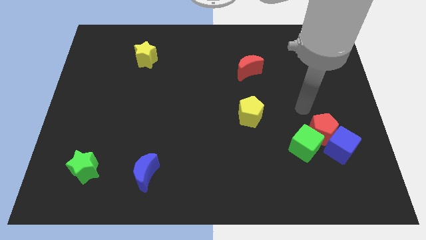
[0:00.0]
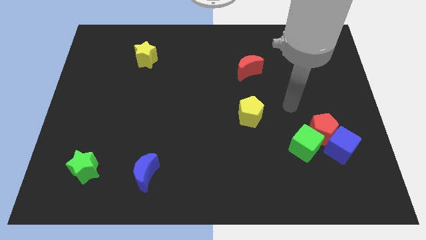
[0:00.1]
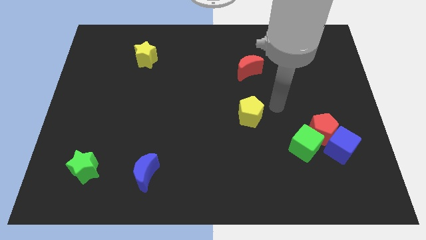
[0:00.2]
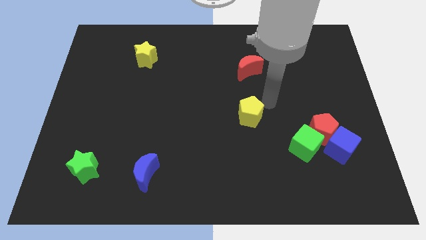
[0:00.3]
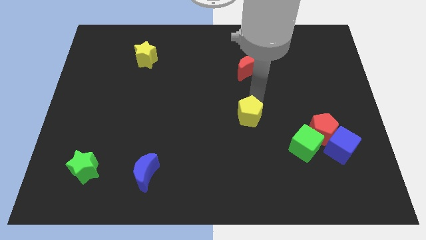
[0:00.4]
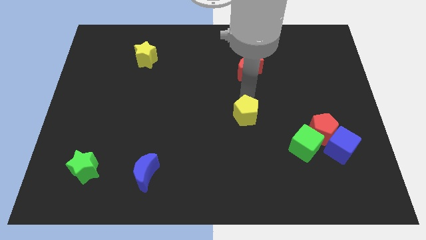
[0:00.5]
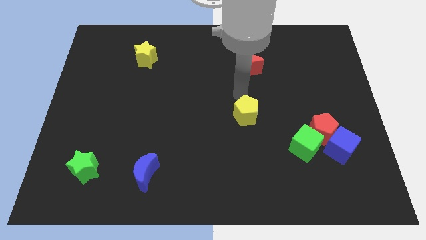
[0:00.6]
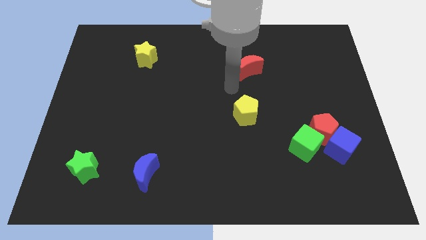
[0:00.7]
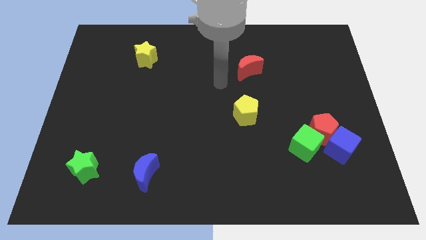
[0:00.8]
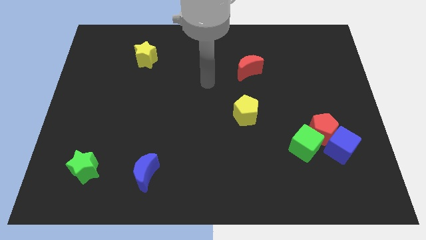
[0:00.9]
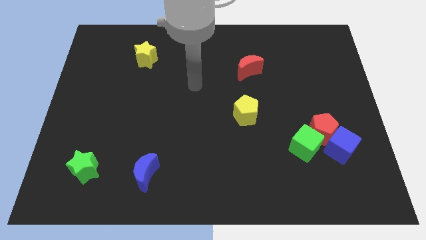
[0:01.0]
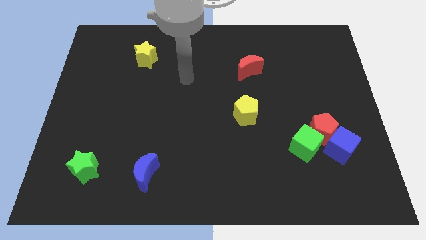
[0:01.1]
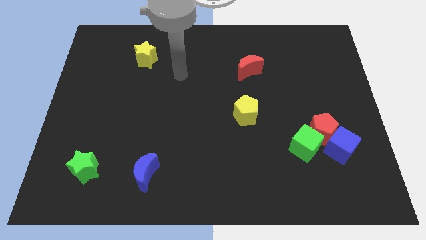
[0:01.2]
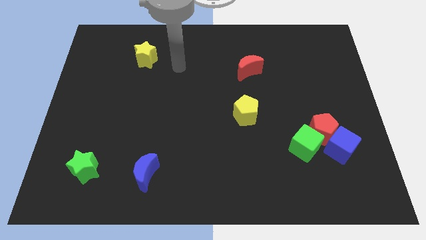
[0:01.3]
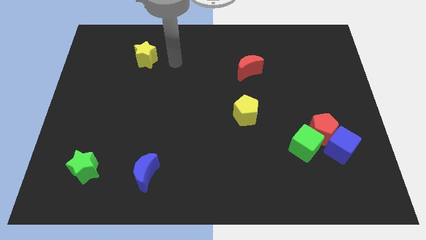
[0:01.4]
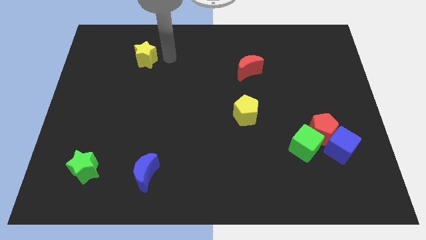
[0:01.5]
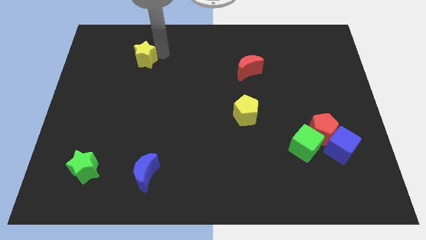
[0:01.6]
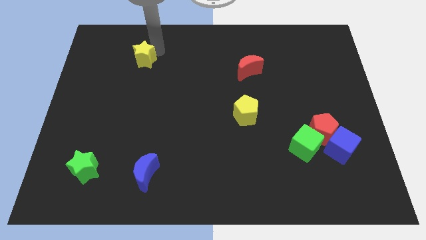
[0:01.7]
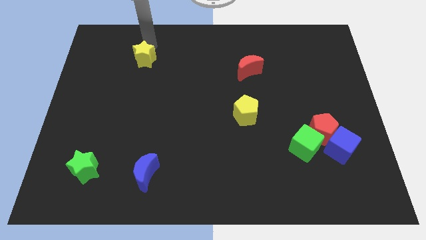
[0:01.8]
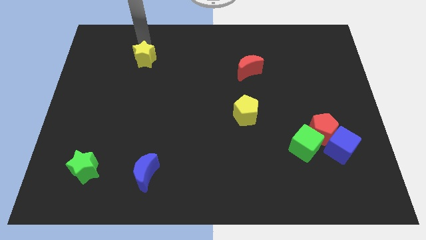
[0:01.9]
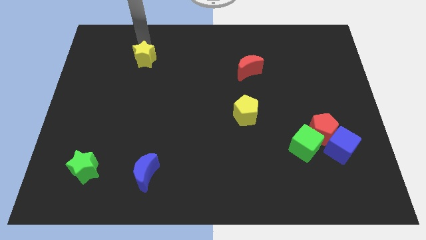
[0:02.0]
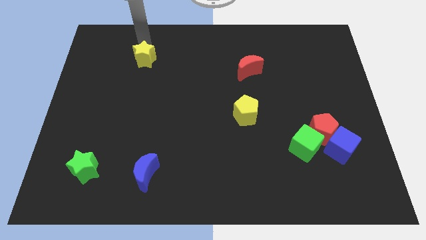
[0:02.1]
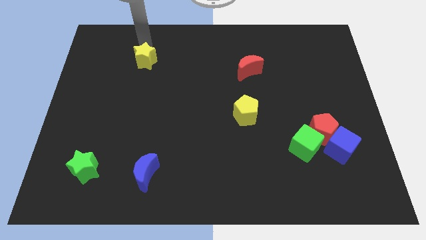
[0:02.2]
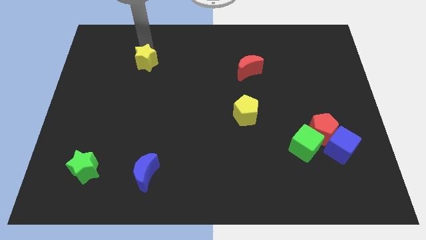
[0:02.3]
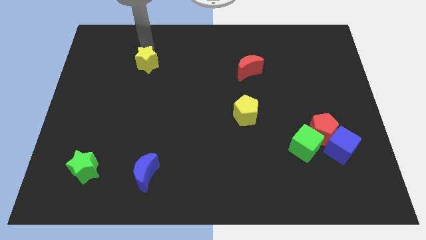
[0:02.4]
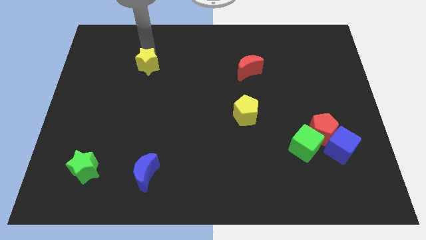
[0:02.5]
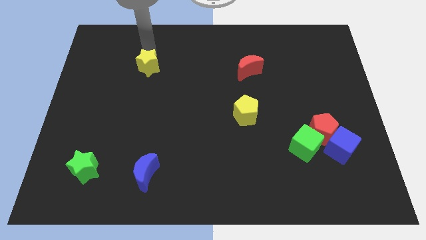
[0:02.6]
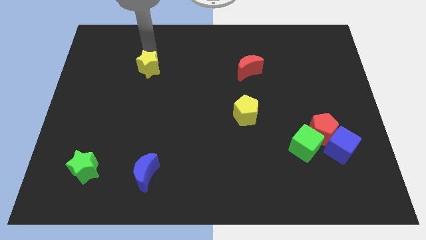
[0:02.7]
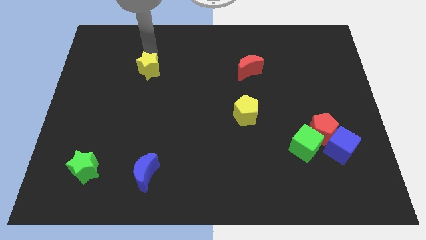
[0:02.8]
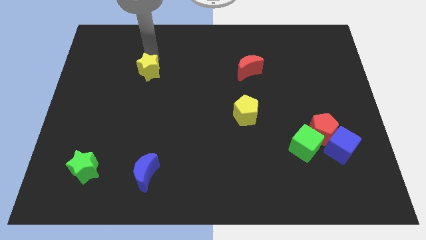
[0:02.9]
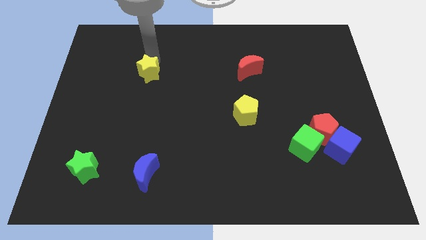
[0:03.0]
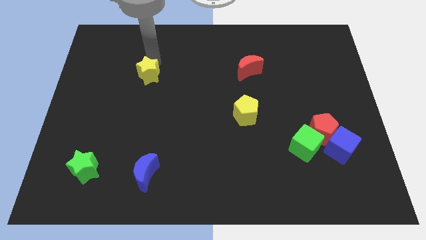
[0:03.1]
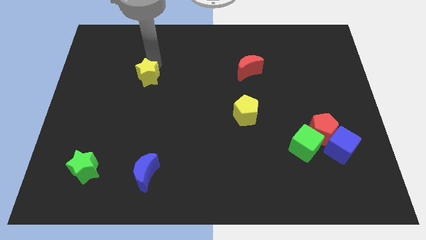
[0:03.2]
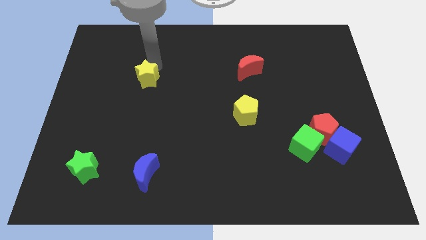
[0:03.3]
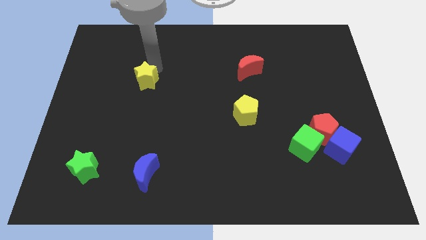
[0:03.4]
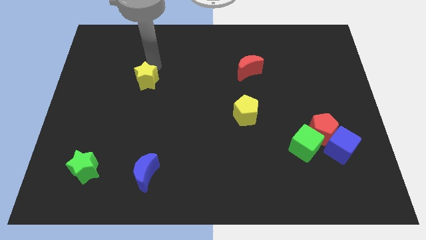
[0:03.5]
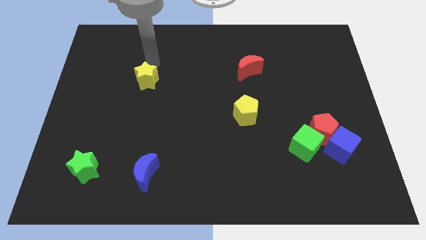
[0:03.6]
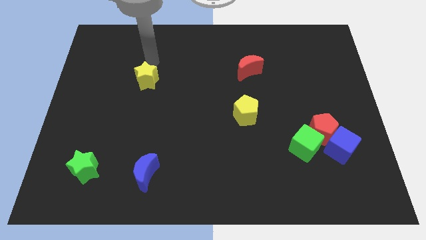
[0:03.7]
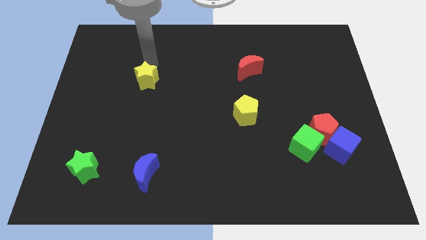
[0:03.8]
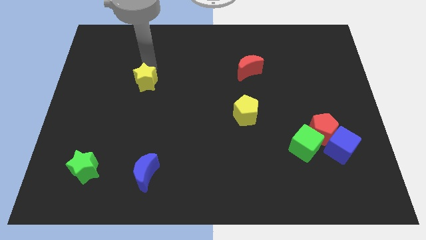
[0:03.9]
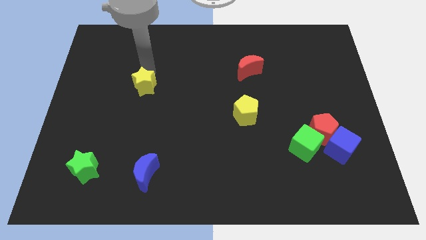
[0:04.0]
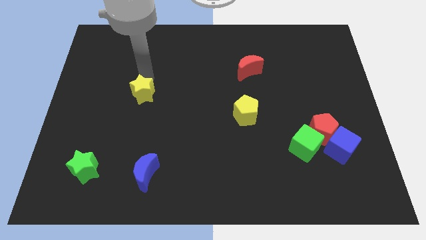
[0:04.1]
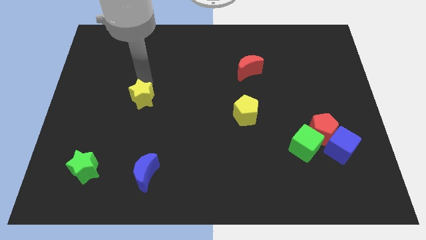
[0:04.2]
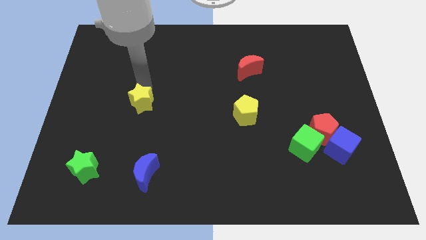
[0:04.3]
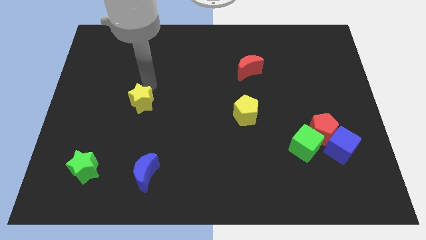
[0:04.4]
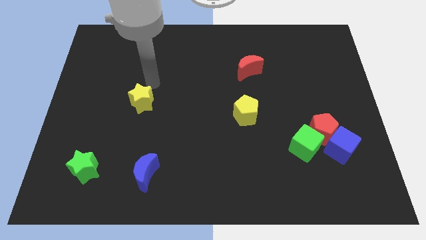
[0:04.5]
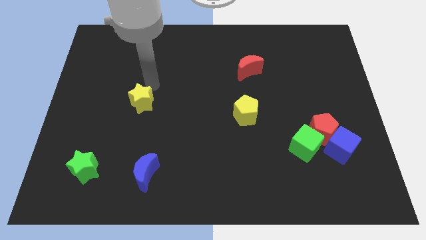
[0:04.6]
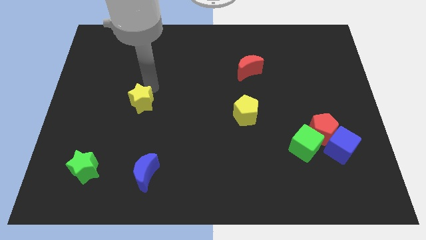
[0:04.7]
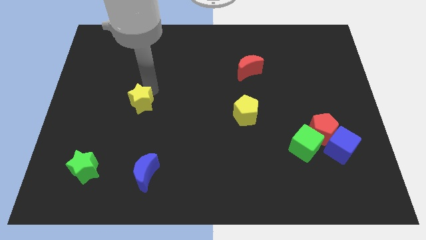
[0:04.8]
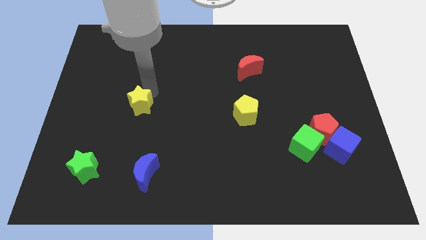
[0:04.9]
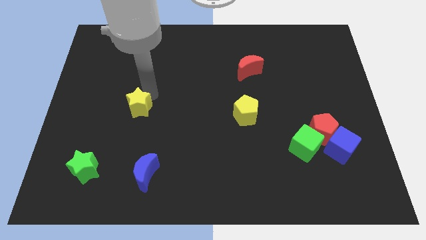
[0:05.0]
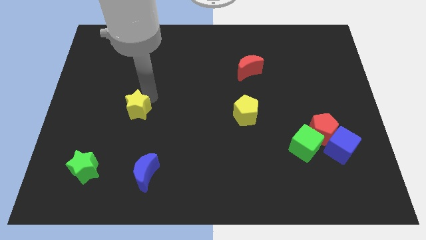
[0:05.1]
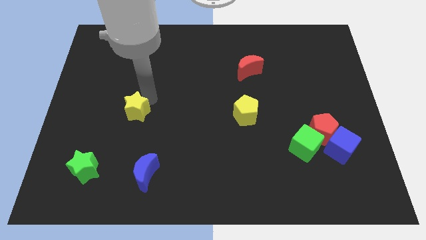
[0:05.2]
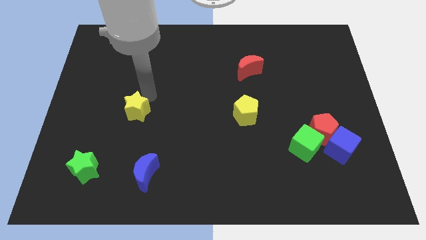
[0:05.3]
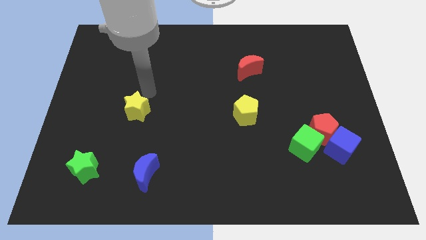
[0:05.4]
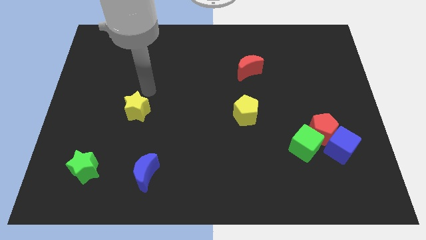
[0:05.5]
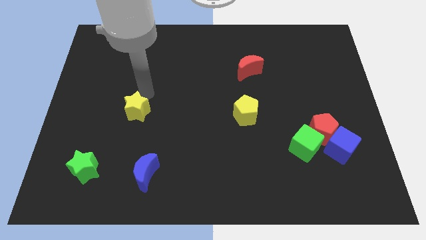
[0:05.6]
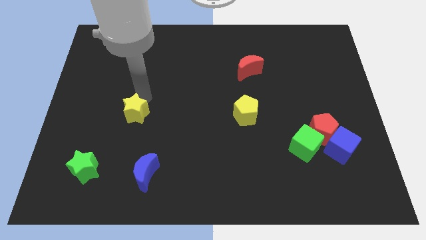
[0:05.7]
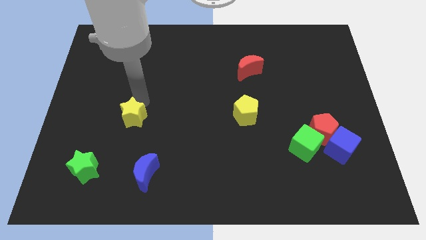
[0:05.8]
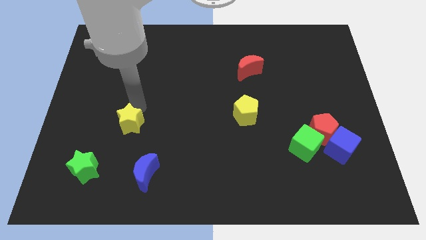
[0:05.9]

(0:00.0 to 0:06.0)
move the yellow star down

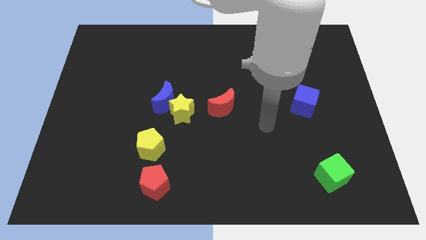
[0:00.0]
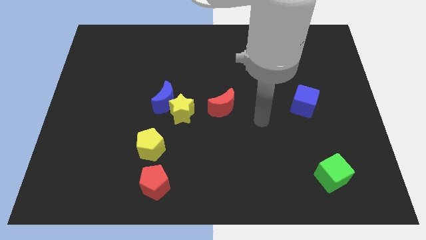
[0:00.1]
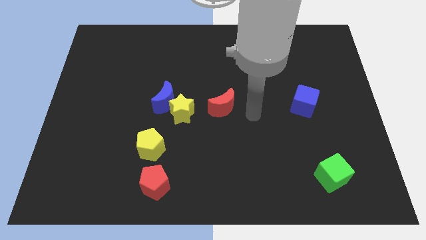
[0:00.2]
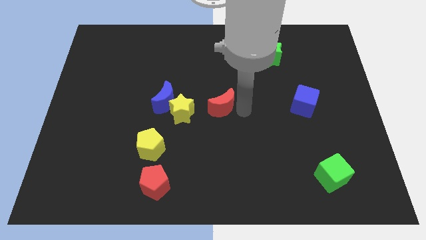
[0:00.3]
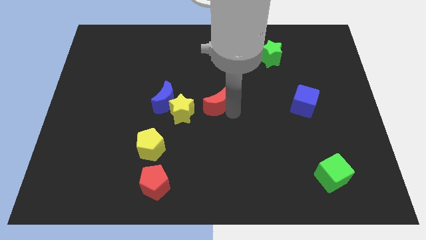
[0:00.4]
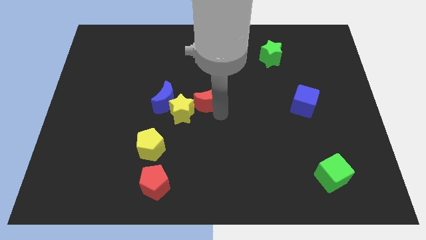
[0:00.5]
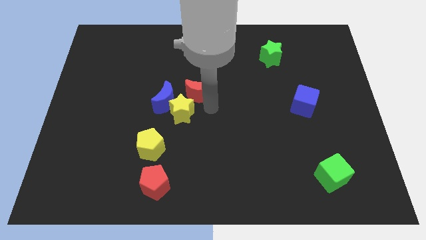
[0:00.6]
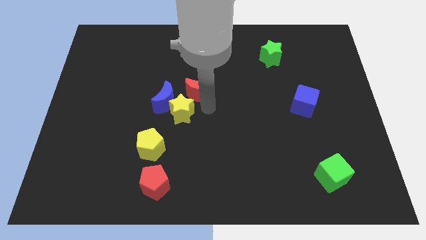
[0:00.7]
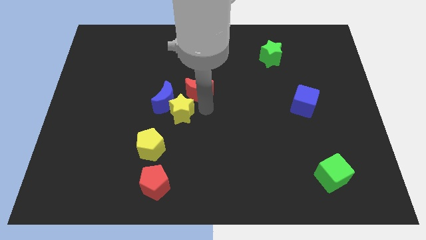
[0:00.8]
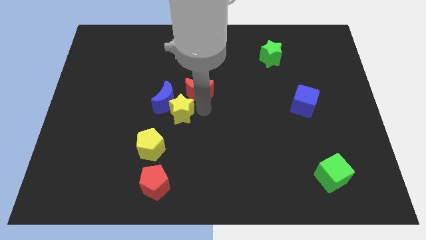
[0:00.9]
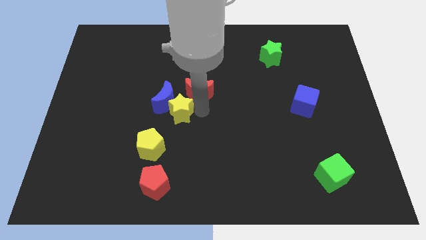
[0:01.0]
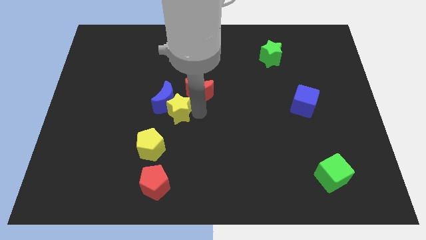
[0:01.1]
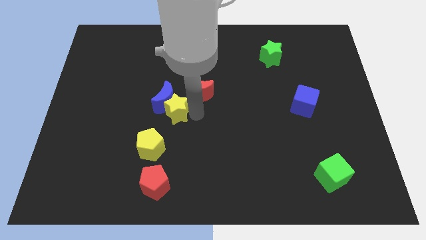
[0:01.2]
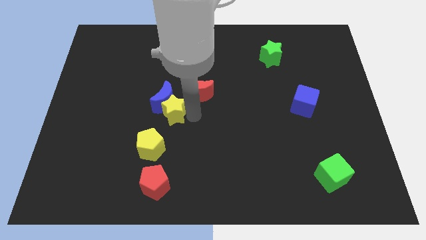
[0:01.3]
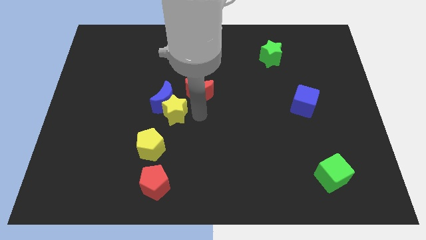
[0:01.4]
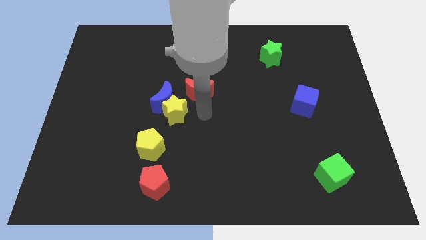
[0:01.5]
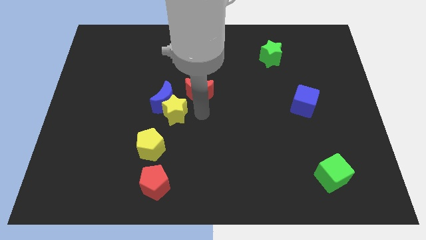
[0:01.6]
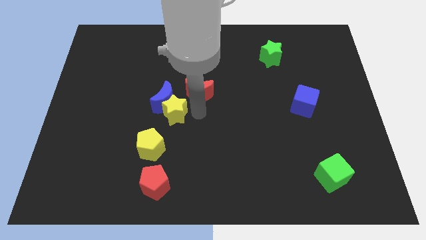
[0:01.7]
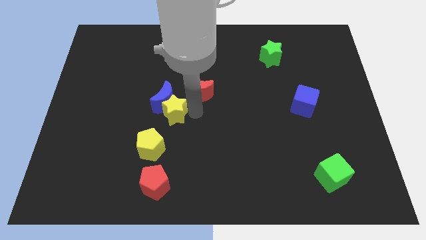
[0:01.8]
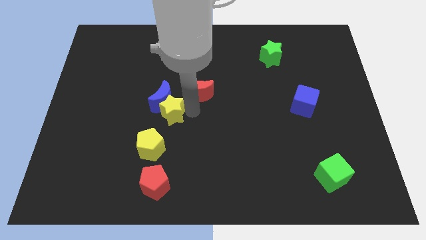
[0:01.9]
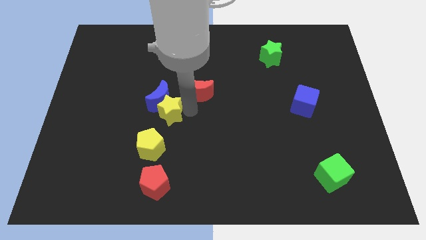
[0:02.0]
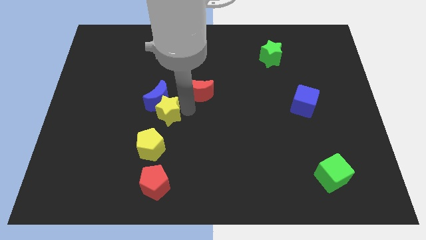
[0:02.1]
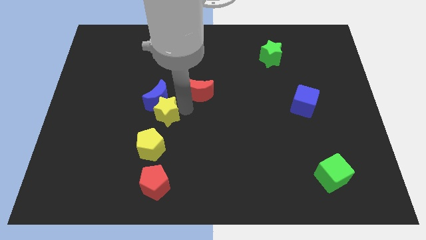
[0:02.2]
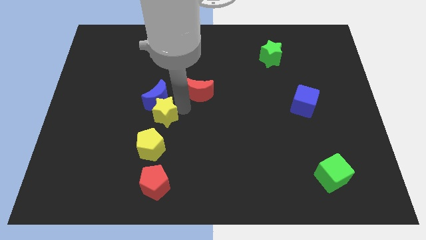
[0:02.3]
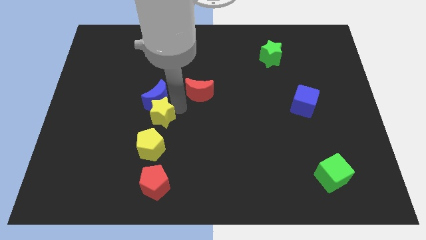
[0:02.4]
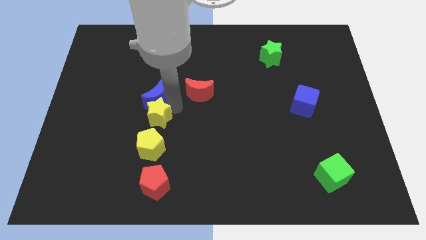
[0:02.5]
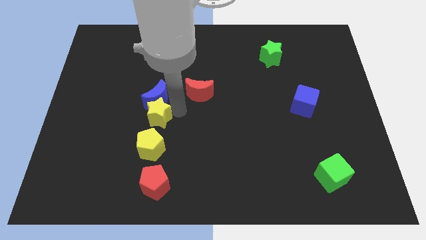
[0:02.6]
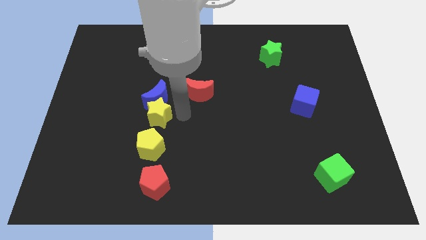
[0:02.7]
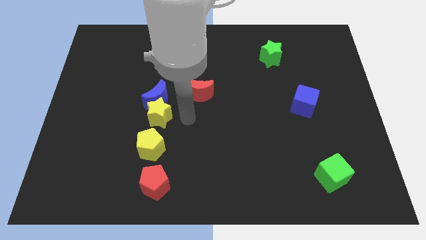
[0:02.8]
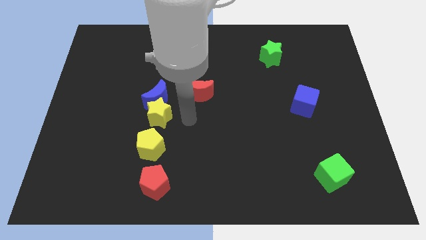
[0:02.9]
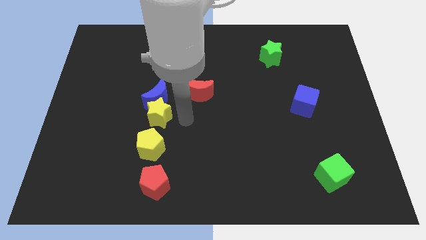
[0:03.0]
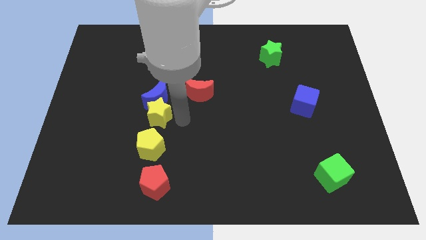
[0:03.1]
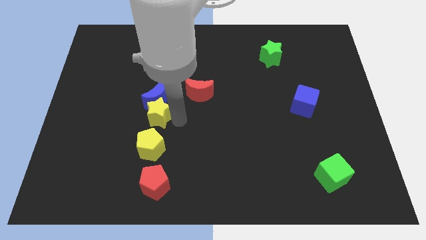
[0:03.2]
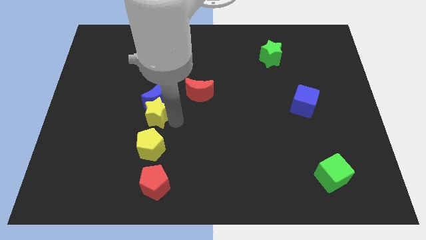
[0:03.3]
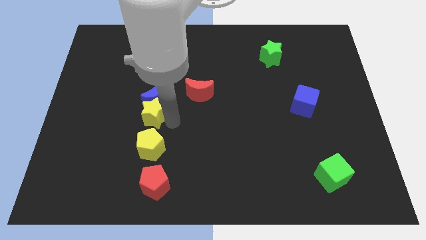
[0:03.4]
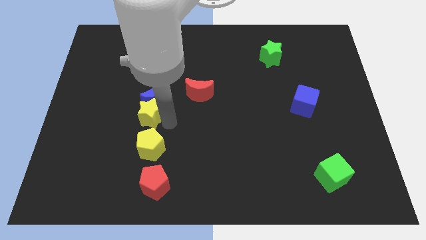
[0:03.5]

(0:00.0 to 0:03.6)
slightly move the yellow star left
